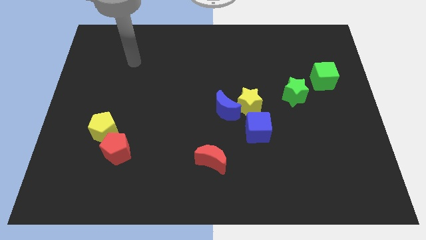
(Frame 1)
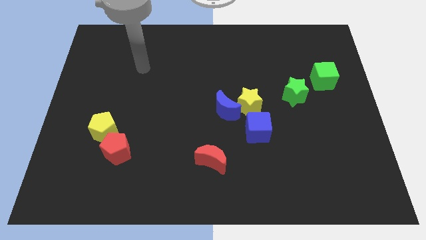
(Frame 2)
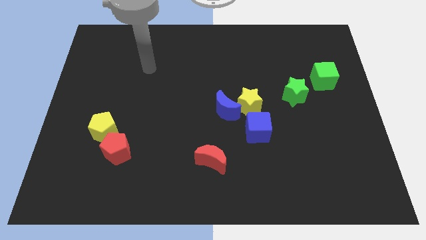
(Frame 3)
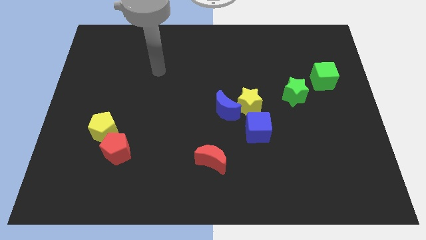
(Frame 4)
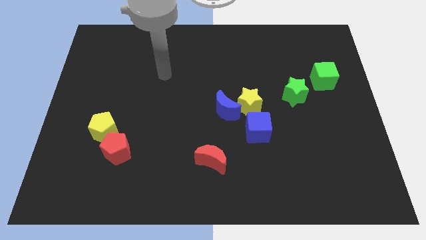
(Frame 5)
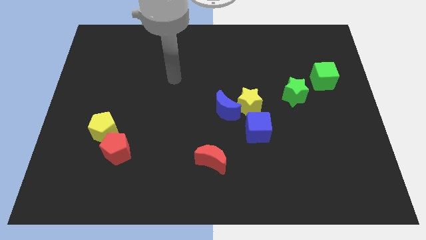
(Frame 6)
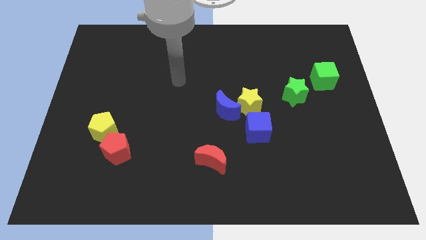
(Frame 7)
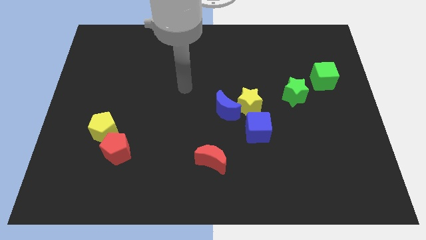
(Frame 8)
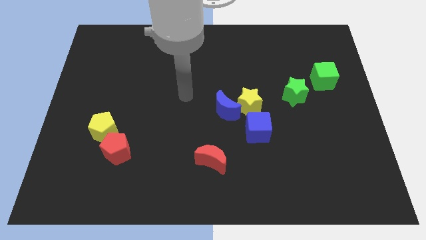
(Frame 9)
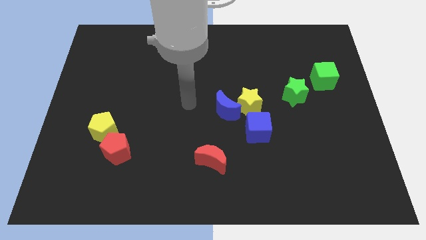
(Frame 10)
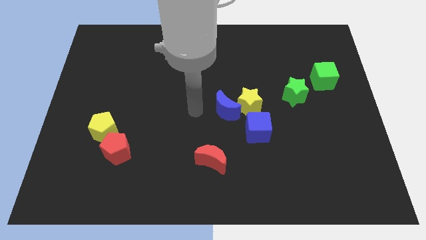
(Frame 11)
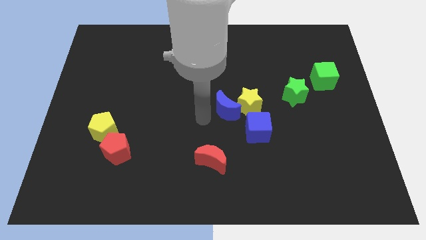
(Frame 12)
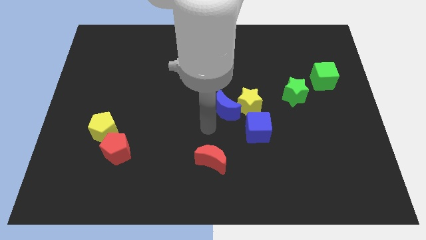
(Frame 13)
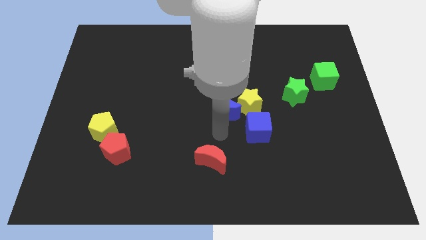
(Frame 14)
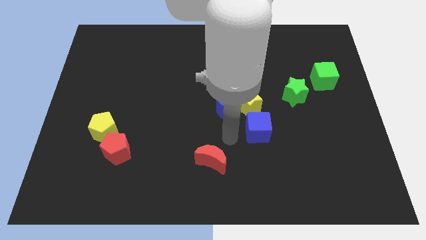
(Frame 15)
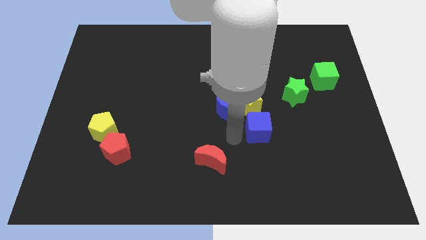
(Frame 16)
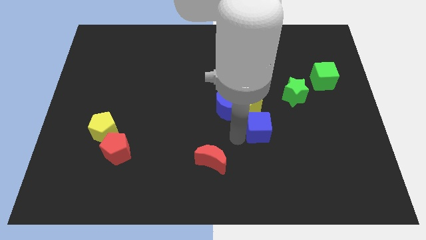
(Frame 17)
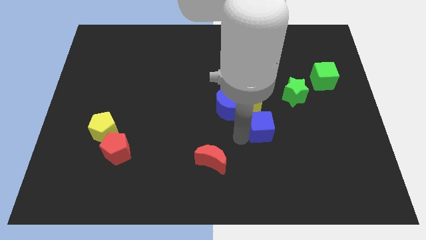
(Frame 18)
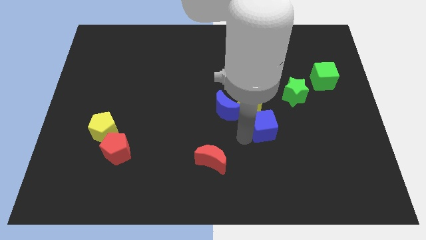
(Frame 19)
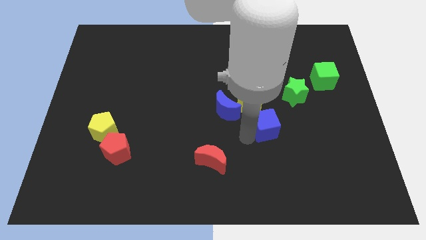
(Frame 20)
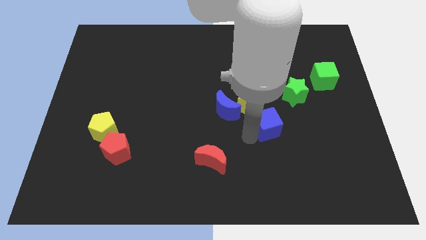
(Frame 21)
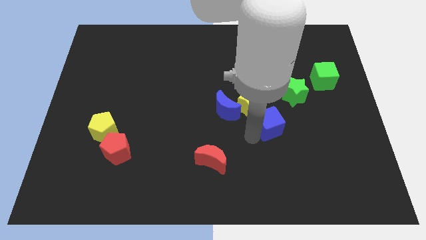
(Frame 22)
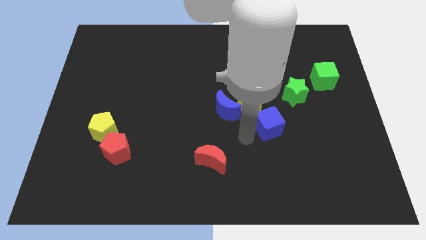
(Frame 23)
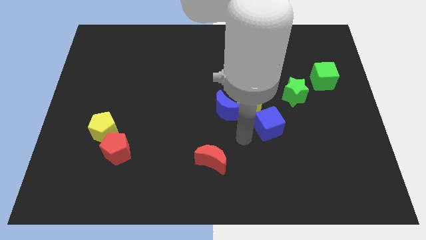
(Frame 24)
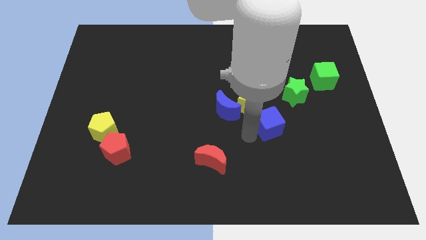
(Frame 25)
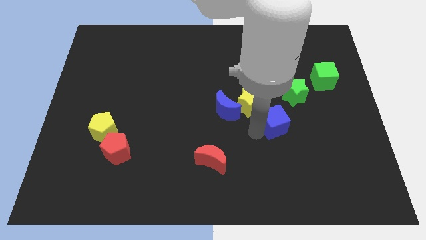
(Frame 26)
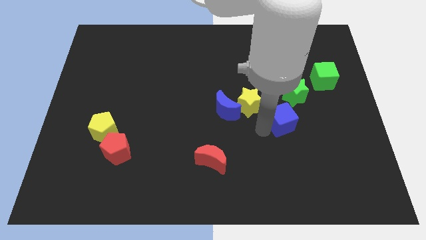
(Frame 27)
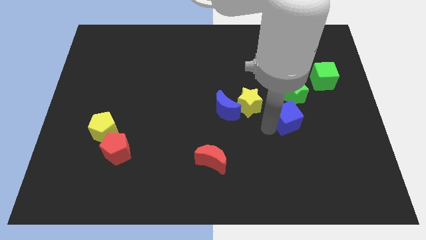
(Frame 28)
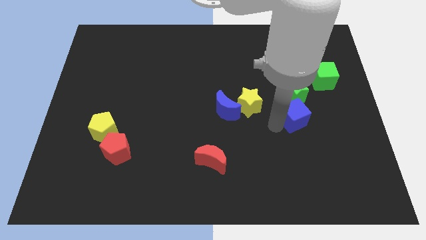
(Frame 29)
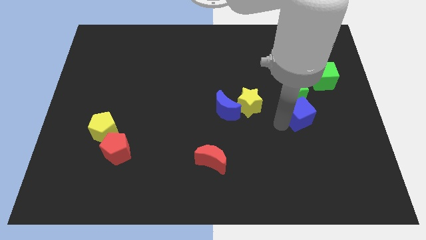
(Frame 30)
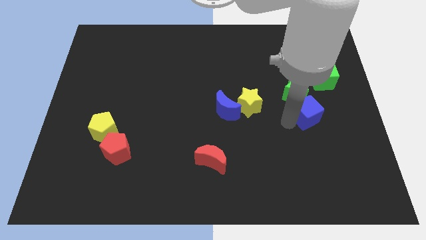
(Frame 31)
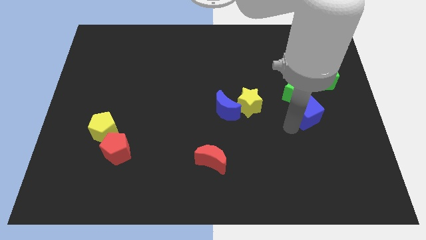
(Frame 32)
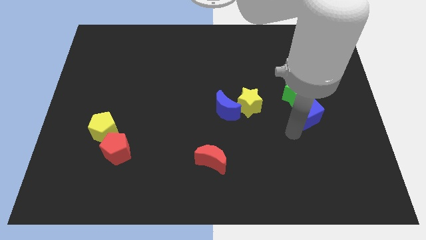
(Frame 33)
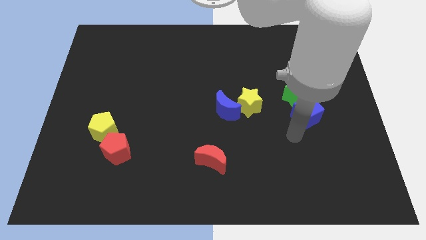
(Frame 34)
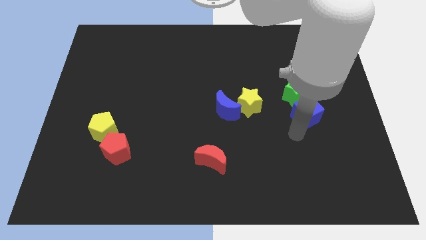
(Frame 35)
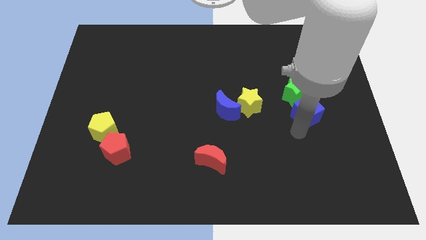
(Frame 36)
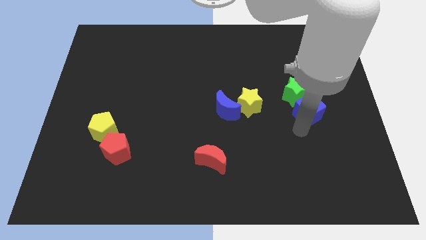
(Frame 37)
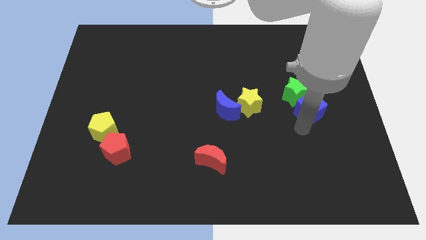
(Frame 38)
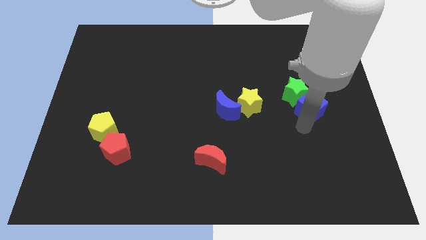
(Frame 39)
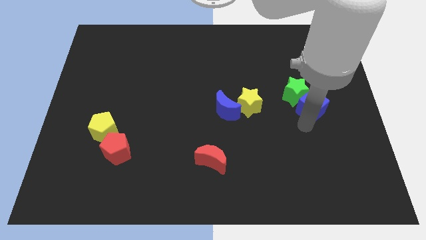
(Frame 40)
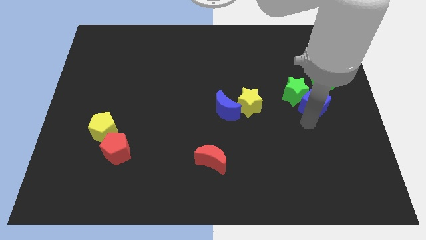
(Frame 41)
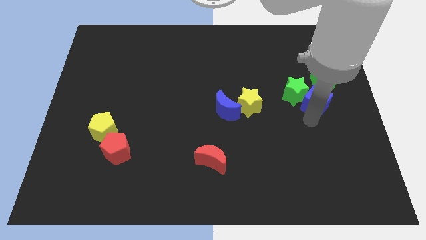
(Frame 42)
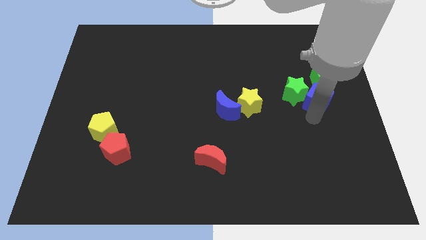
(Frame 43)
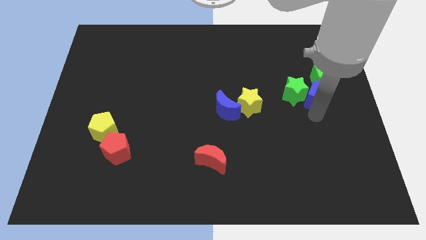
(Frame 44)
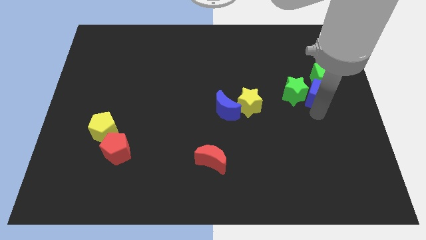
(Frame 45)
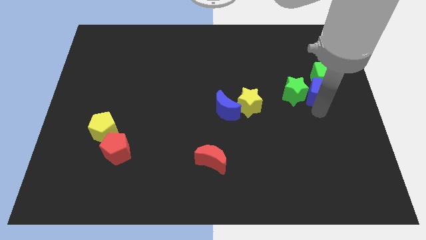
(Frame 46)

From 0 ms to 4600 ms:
push the blue cube next to the green cube

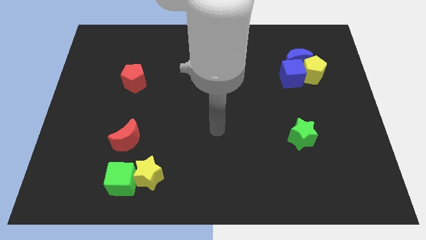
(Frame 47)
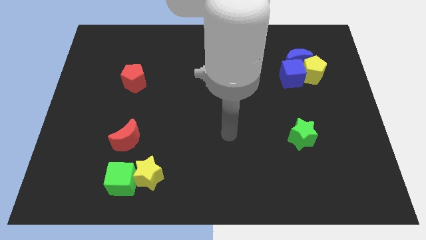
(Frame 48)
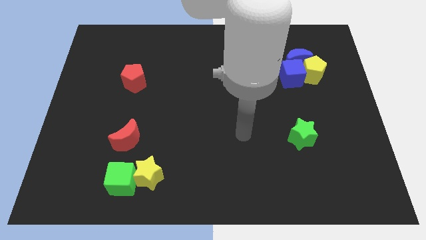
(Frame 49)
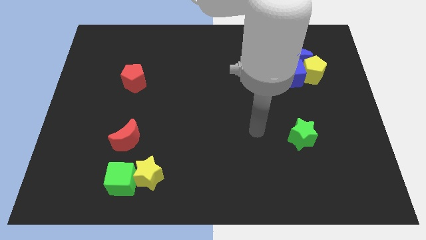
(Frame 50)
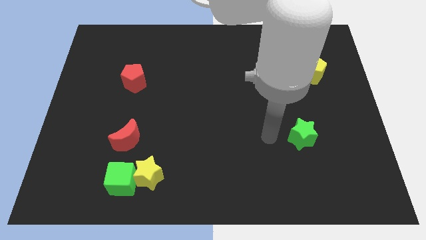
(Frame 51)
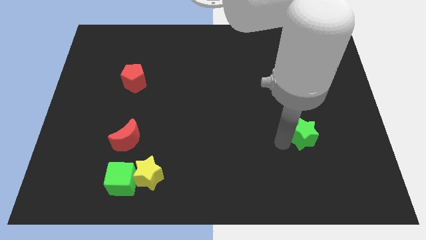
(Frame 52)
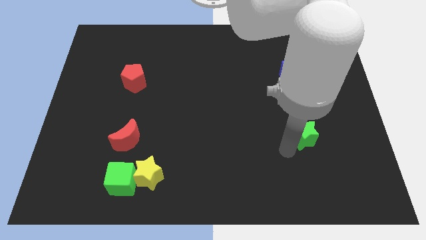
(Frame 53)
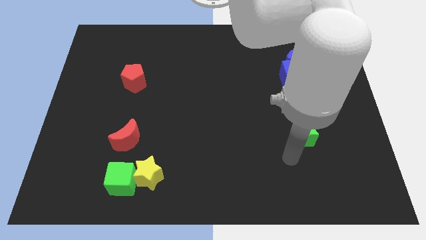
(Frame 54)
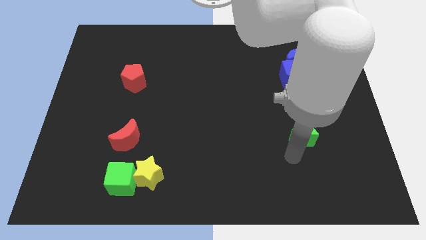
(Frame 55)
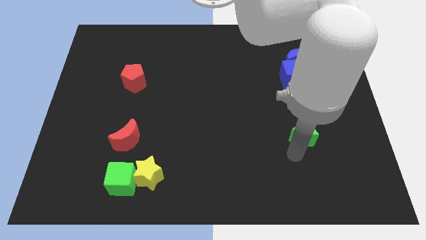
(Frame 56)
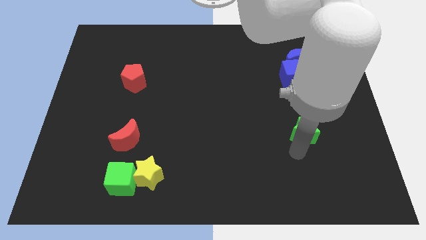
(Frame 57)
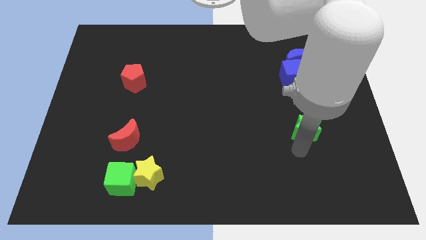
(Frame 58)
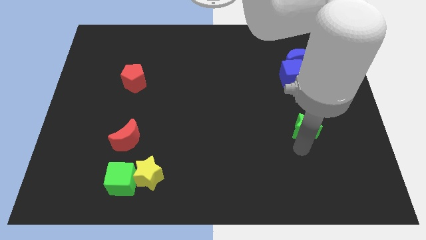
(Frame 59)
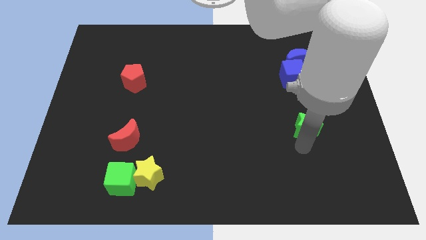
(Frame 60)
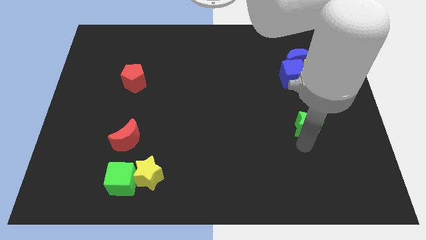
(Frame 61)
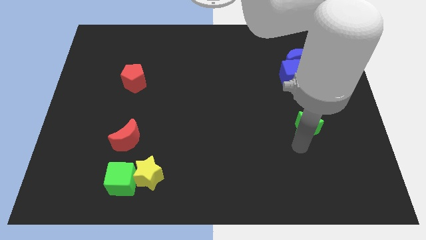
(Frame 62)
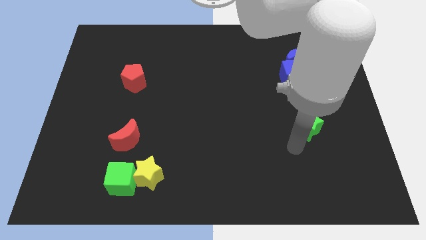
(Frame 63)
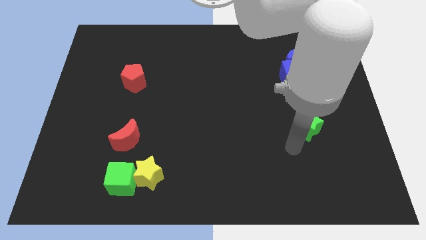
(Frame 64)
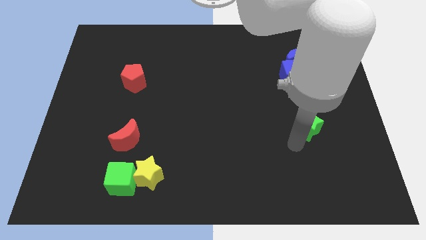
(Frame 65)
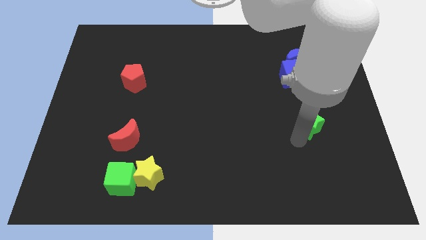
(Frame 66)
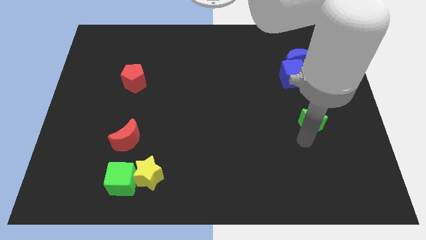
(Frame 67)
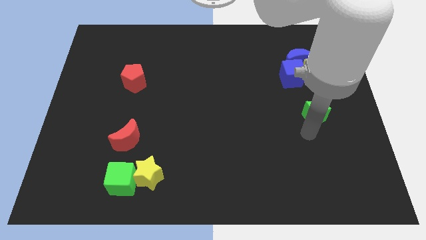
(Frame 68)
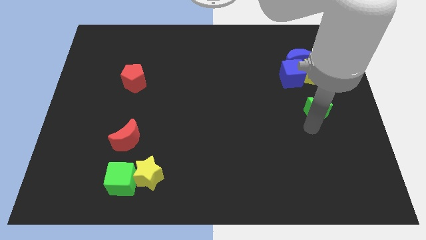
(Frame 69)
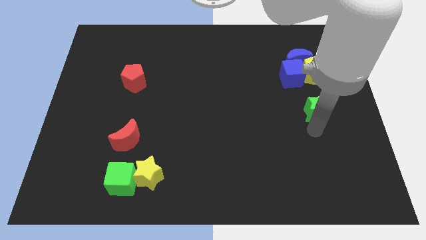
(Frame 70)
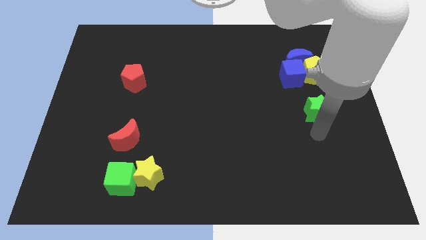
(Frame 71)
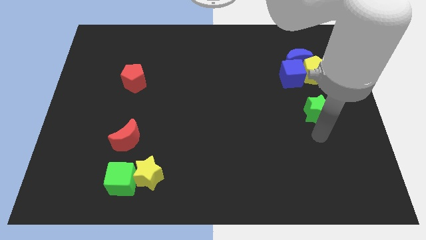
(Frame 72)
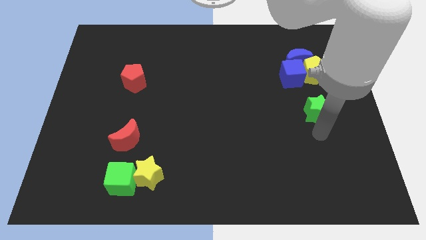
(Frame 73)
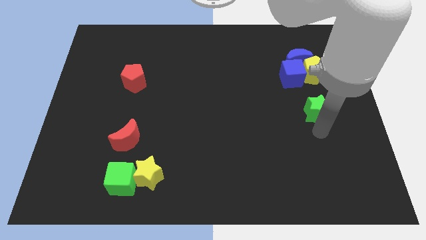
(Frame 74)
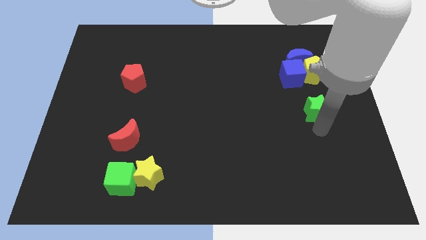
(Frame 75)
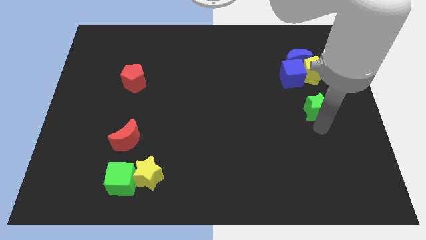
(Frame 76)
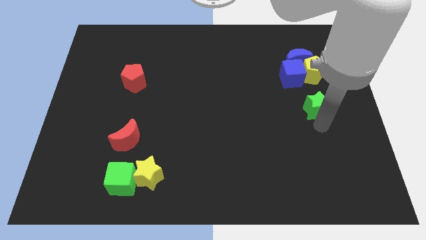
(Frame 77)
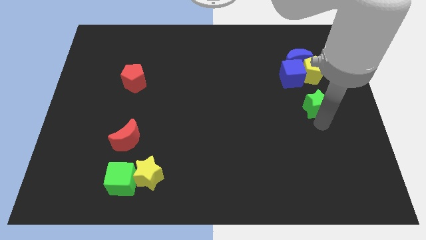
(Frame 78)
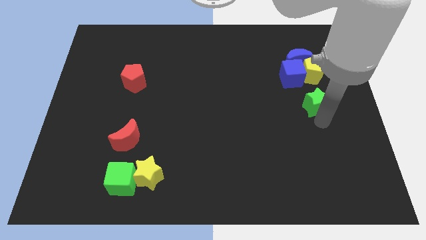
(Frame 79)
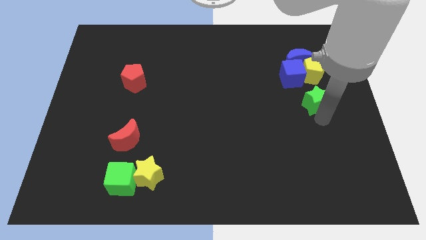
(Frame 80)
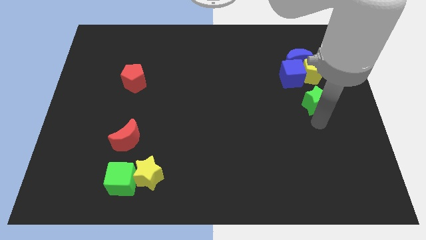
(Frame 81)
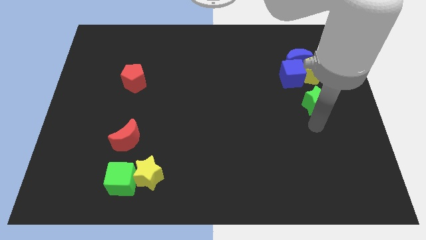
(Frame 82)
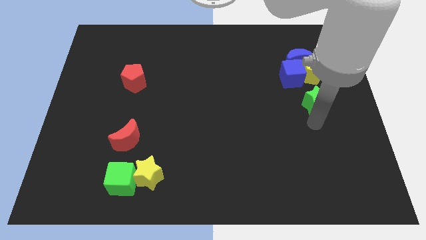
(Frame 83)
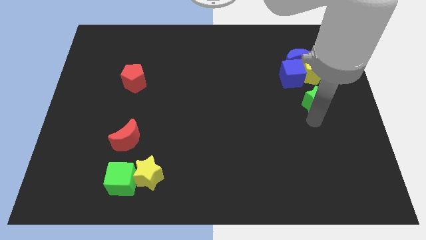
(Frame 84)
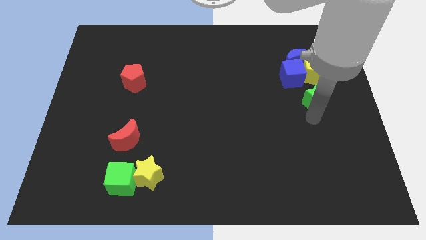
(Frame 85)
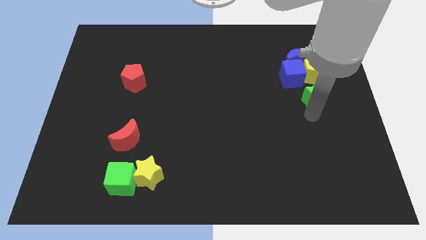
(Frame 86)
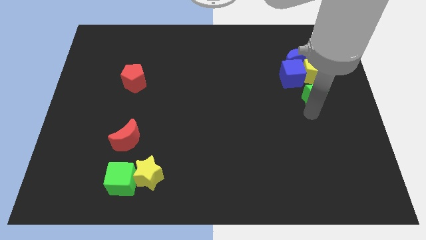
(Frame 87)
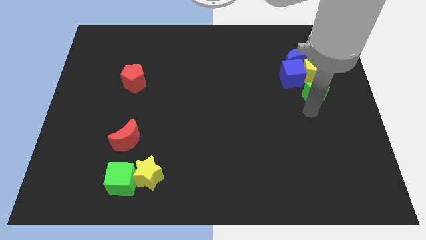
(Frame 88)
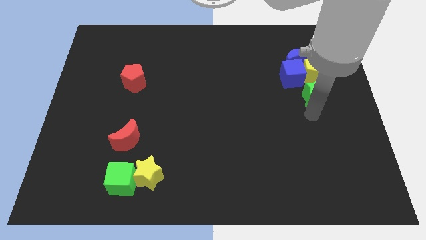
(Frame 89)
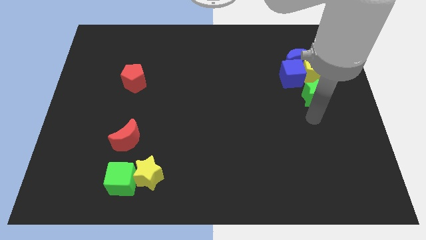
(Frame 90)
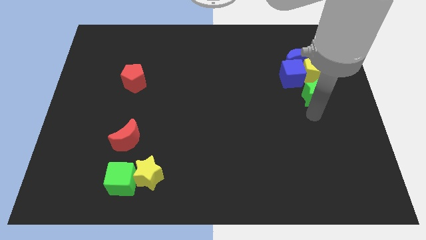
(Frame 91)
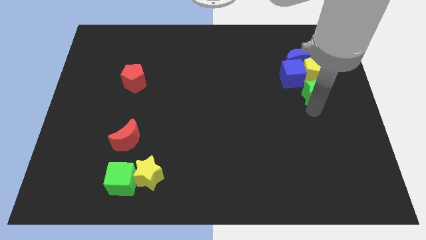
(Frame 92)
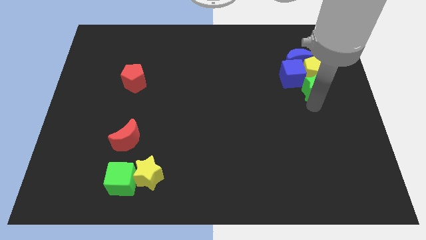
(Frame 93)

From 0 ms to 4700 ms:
push the green star close to the yellow pentagon
